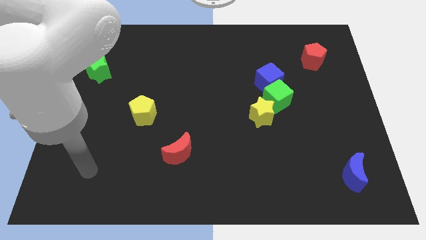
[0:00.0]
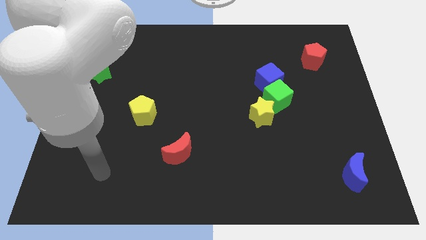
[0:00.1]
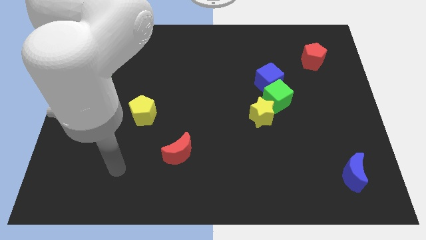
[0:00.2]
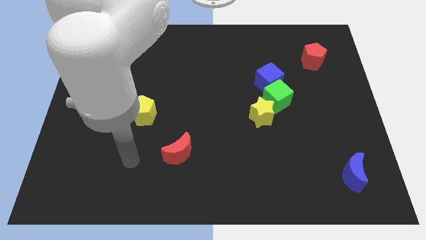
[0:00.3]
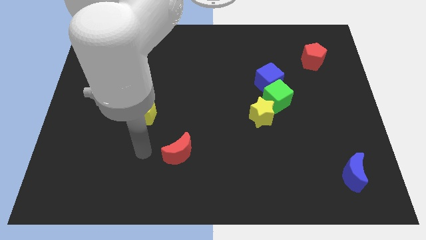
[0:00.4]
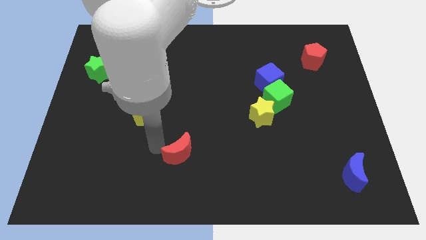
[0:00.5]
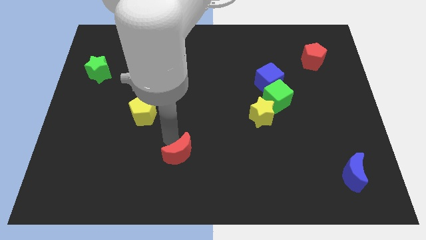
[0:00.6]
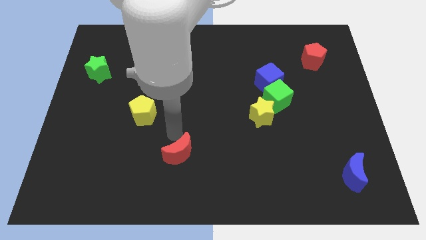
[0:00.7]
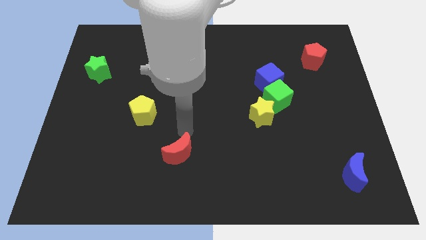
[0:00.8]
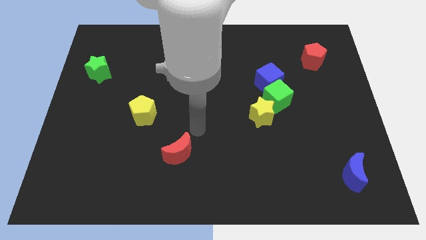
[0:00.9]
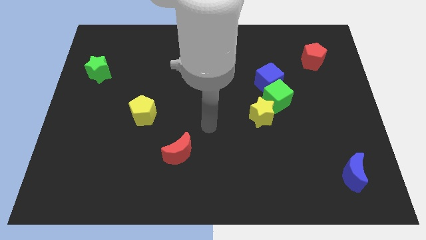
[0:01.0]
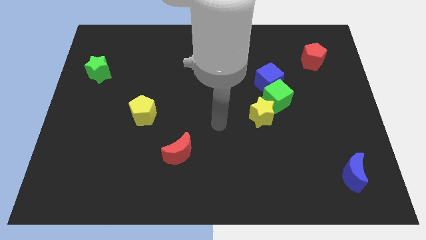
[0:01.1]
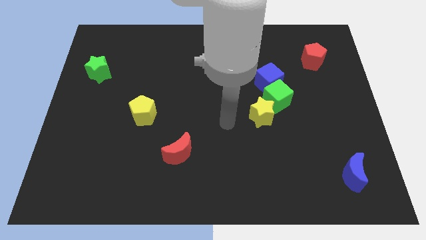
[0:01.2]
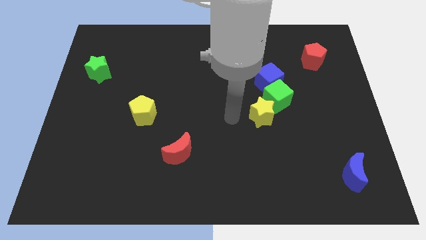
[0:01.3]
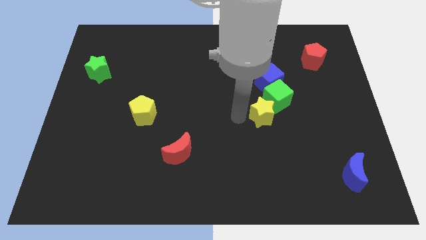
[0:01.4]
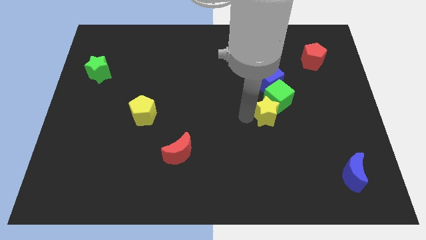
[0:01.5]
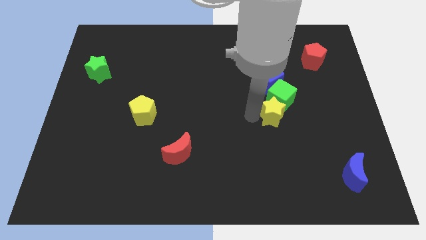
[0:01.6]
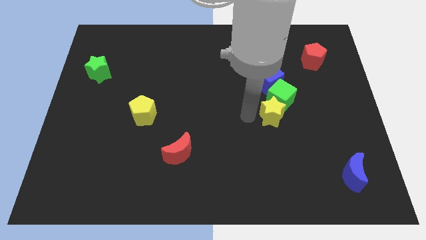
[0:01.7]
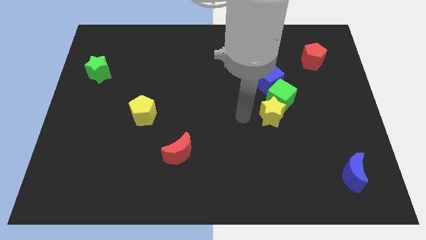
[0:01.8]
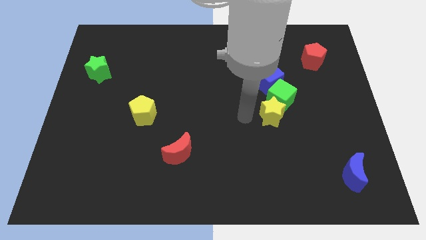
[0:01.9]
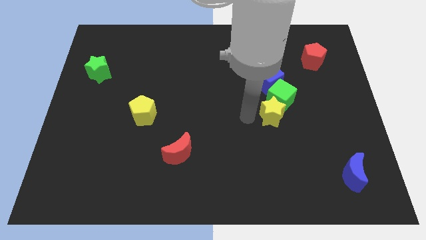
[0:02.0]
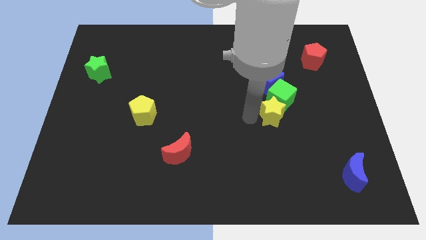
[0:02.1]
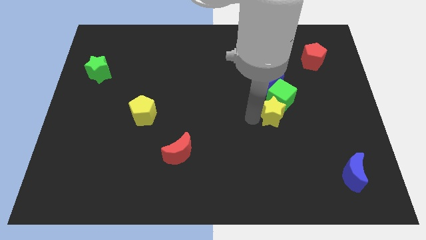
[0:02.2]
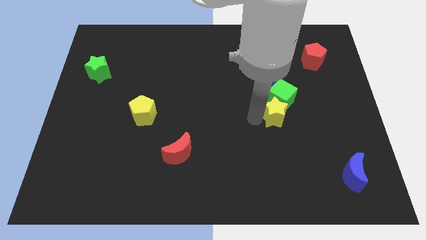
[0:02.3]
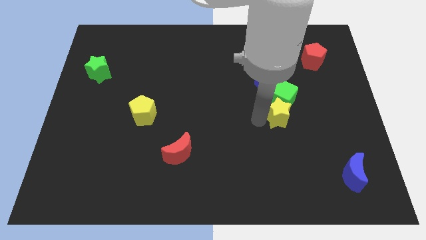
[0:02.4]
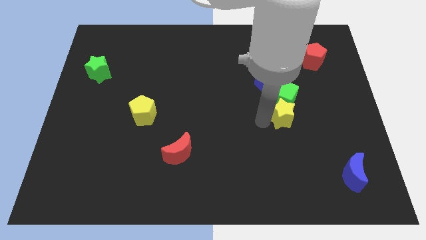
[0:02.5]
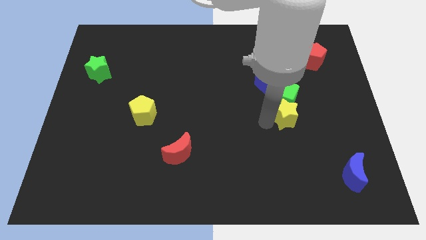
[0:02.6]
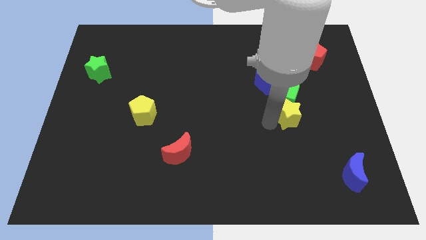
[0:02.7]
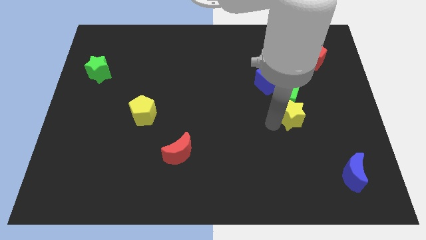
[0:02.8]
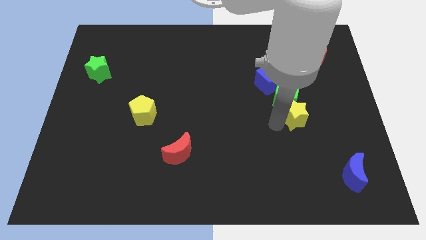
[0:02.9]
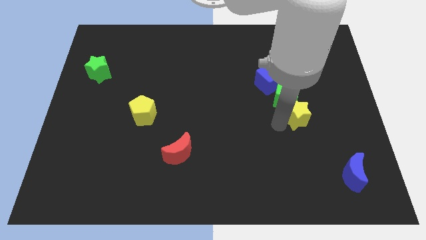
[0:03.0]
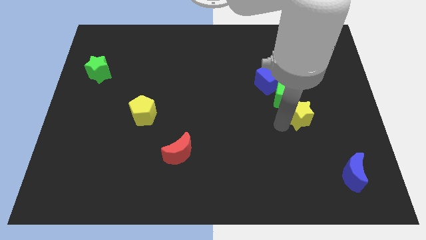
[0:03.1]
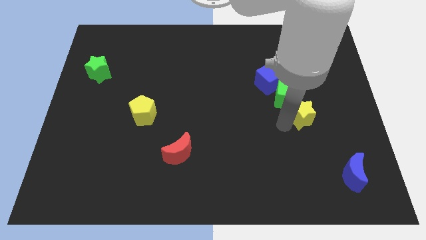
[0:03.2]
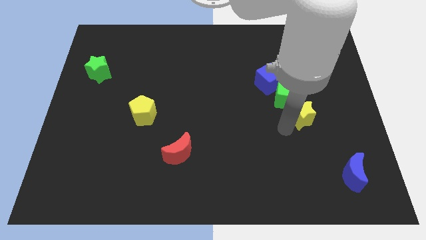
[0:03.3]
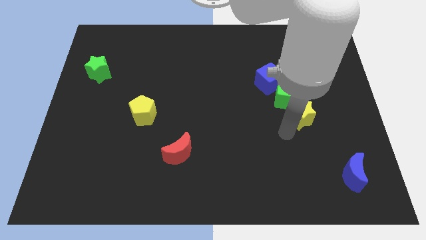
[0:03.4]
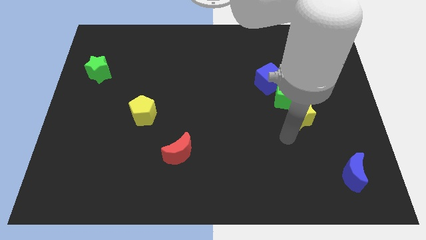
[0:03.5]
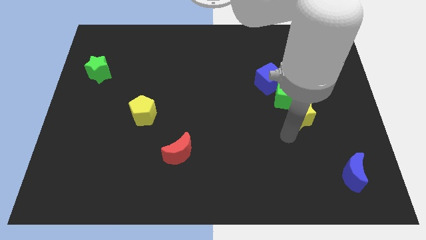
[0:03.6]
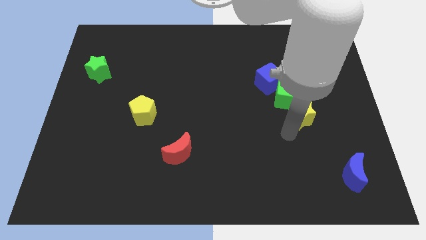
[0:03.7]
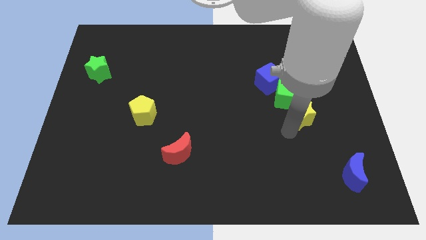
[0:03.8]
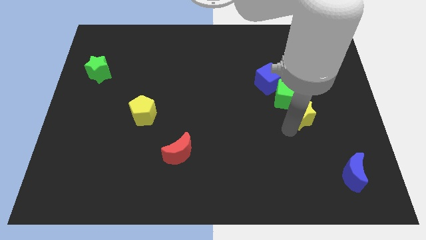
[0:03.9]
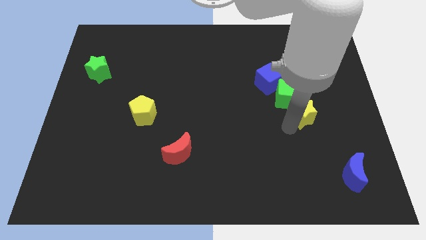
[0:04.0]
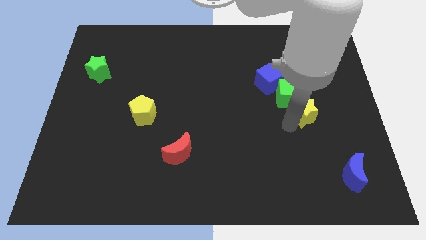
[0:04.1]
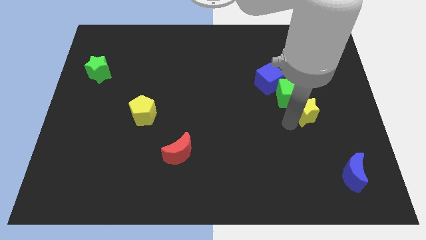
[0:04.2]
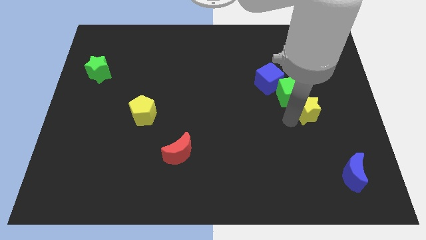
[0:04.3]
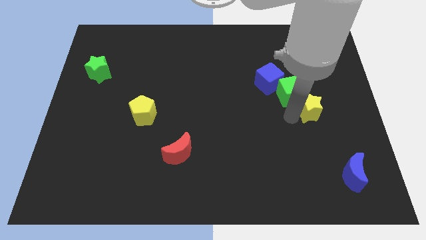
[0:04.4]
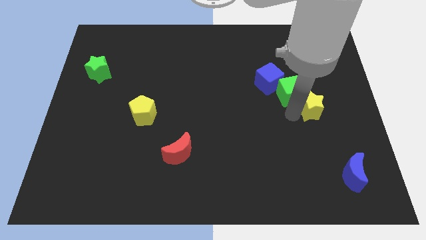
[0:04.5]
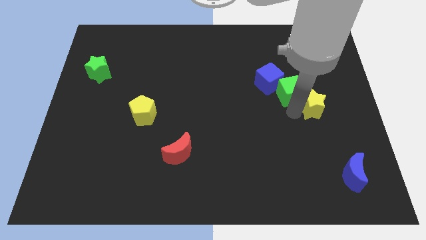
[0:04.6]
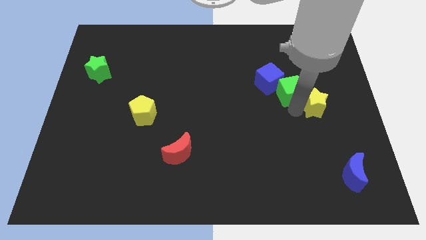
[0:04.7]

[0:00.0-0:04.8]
push the yellow star to the bottom of the red pentagon

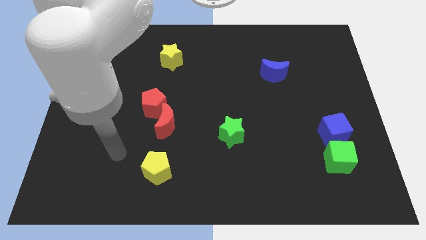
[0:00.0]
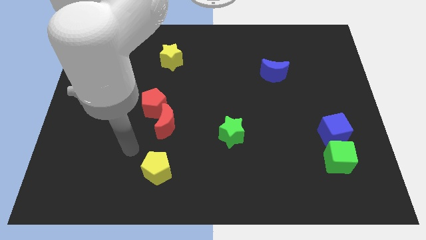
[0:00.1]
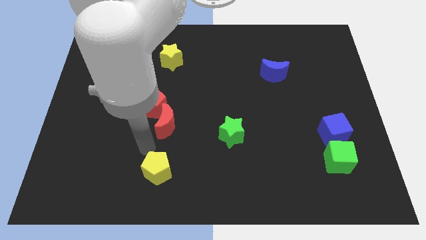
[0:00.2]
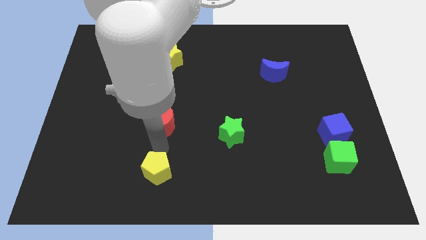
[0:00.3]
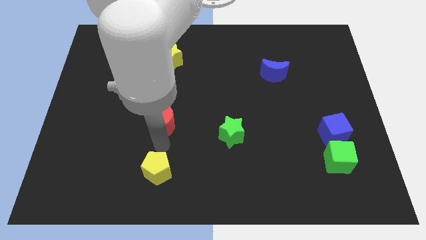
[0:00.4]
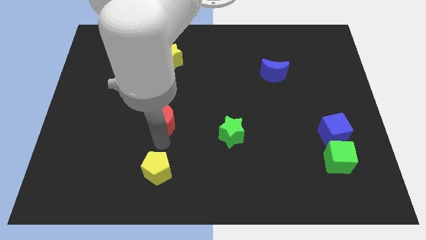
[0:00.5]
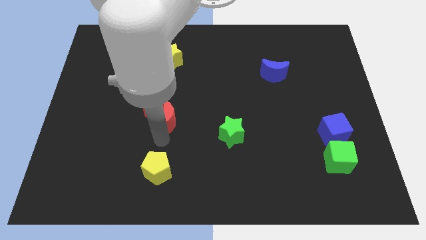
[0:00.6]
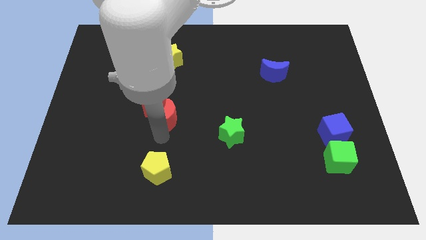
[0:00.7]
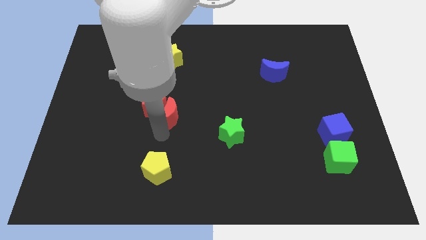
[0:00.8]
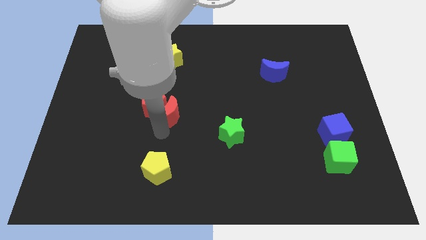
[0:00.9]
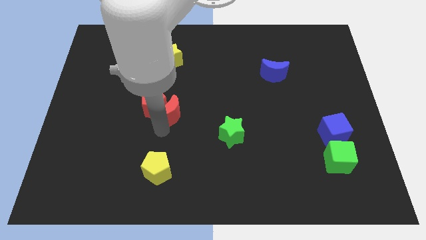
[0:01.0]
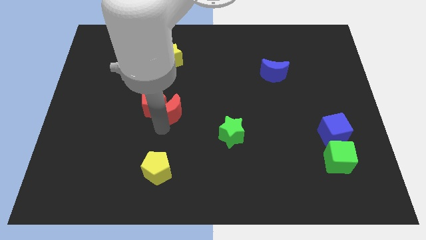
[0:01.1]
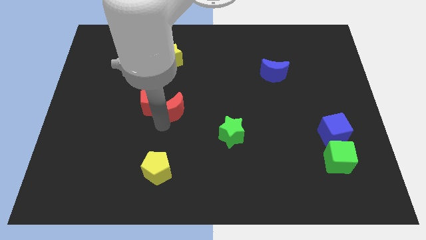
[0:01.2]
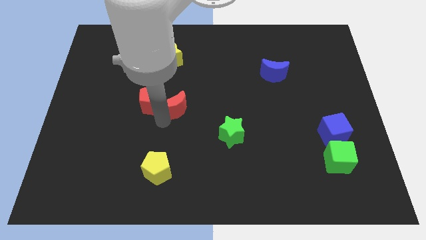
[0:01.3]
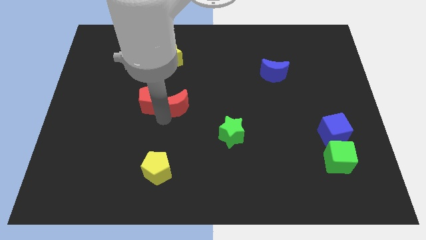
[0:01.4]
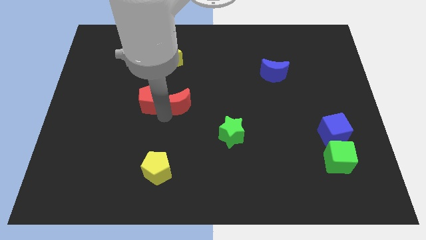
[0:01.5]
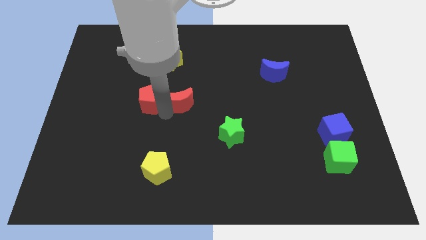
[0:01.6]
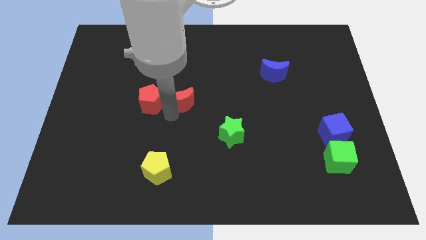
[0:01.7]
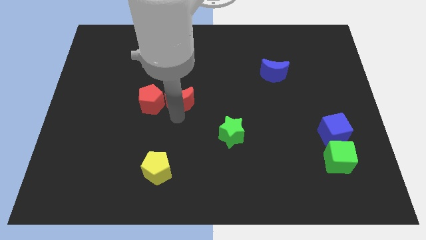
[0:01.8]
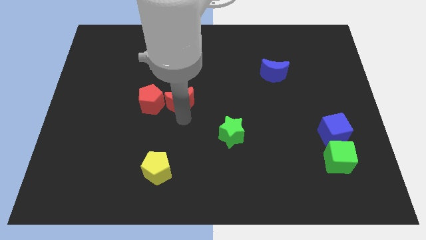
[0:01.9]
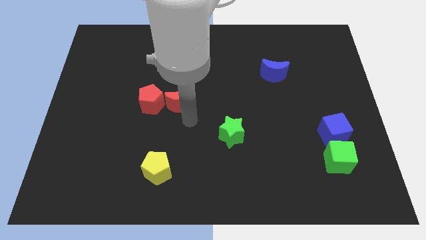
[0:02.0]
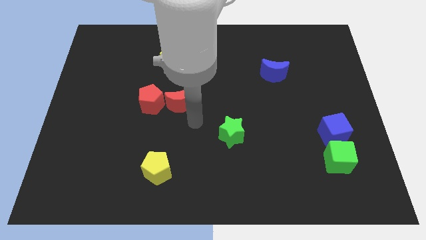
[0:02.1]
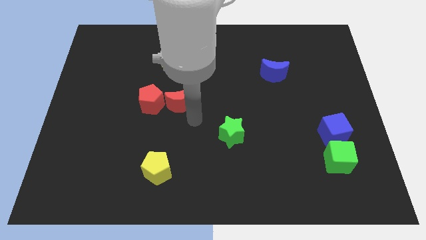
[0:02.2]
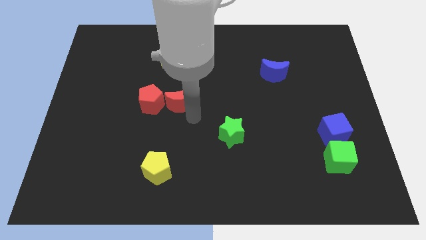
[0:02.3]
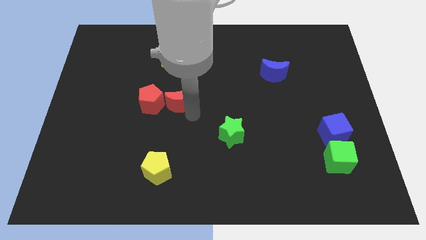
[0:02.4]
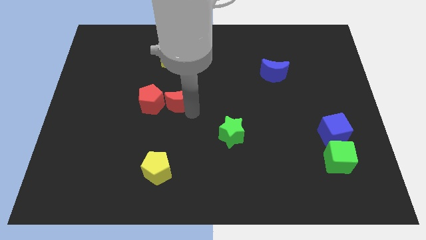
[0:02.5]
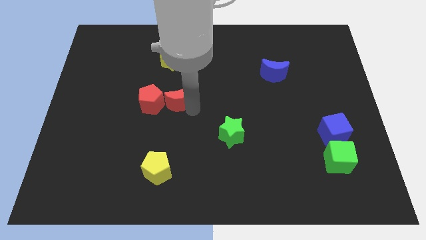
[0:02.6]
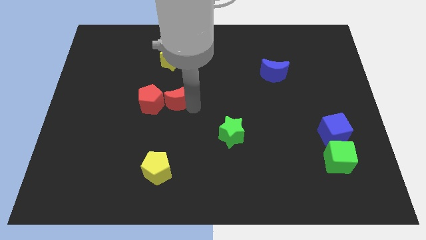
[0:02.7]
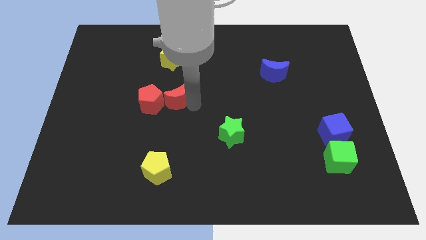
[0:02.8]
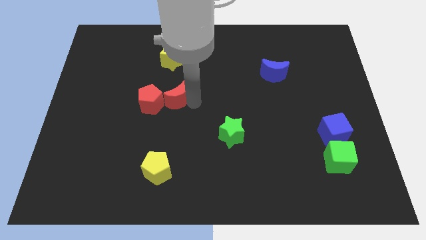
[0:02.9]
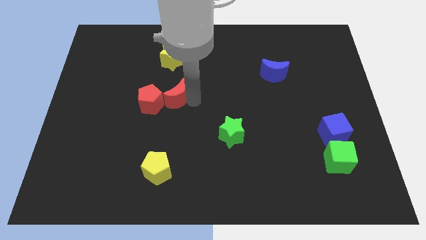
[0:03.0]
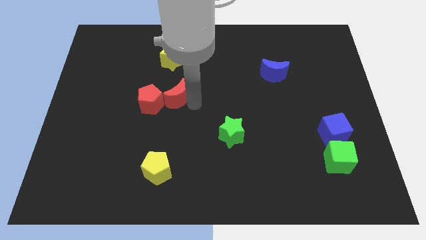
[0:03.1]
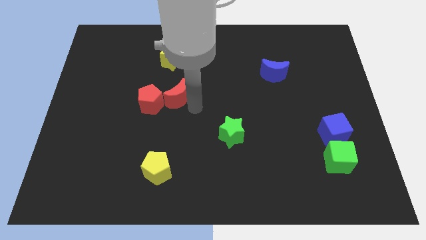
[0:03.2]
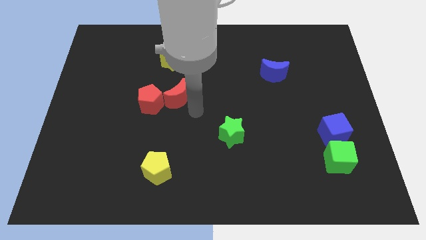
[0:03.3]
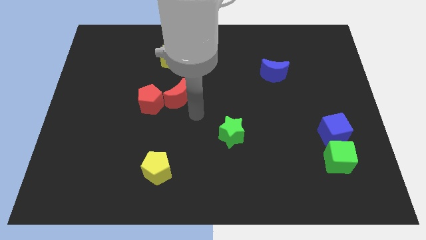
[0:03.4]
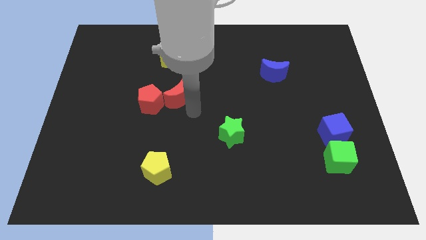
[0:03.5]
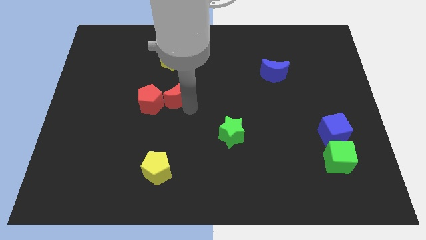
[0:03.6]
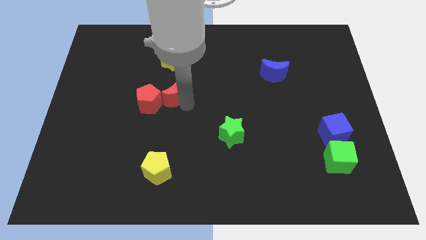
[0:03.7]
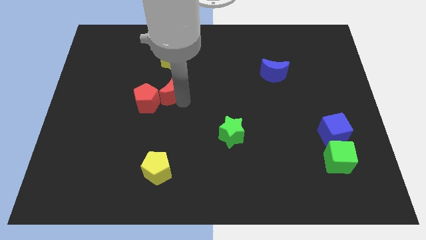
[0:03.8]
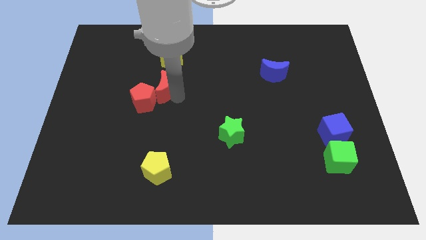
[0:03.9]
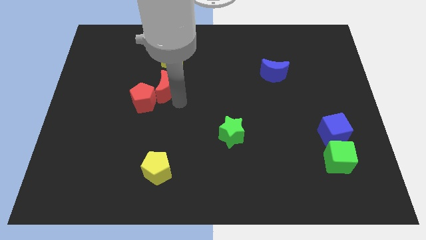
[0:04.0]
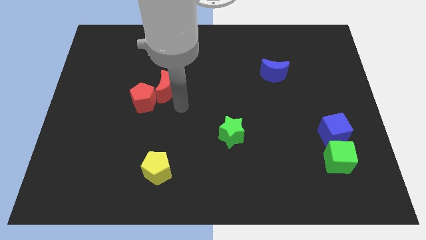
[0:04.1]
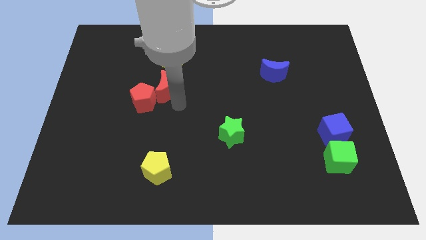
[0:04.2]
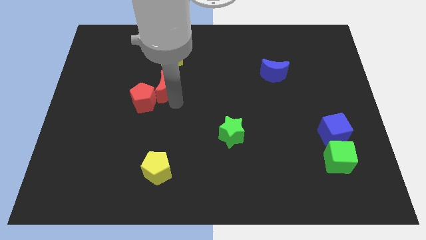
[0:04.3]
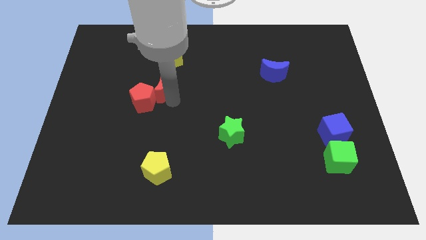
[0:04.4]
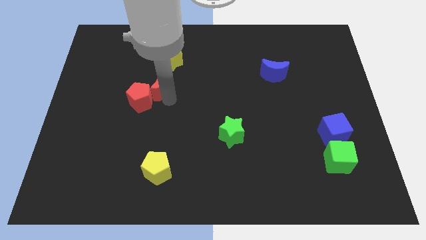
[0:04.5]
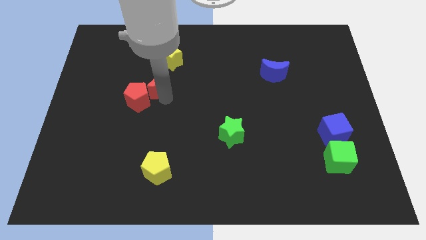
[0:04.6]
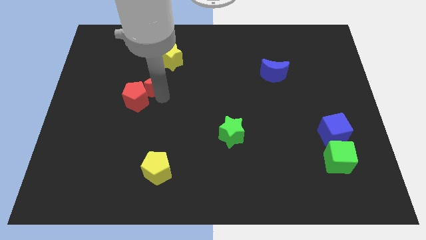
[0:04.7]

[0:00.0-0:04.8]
move the red moon to the top of the red pentagon
